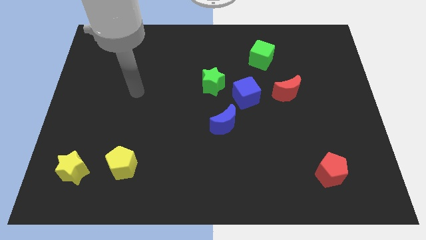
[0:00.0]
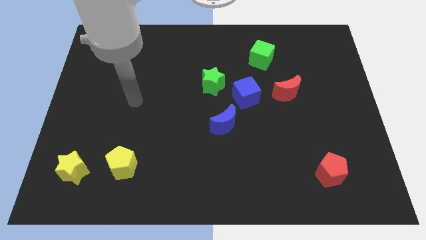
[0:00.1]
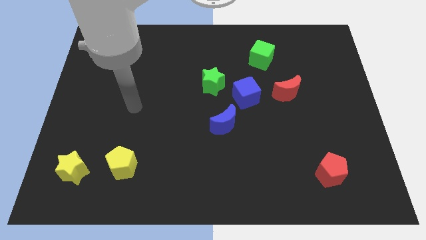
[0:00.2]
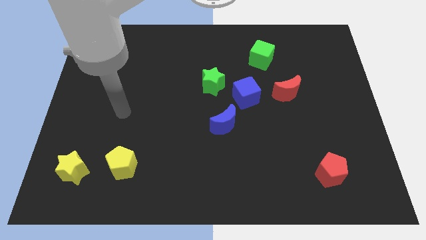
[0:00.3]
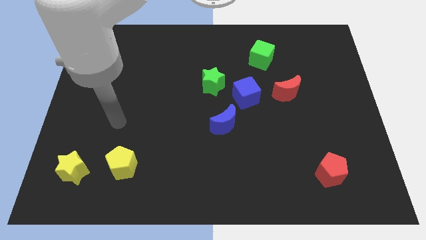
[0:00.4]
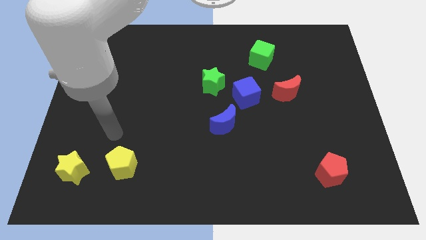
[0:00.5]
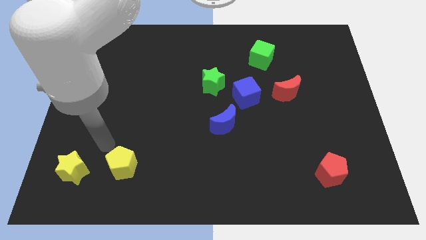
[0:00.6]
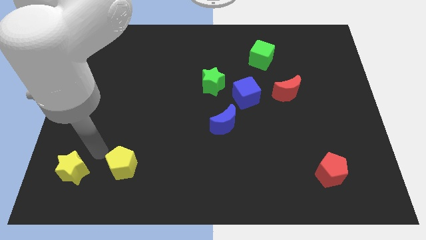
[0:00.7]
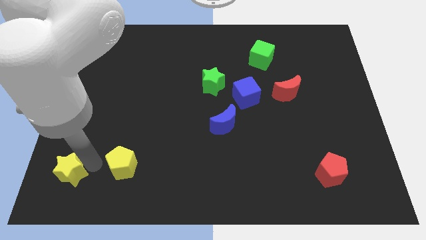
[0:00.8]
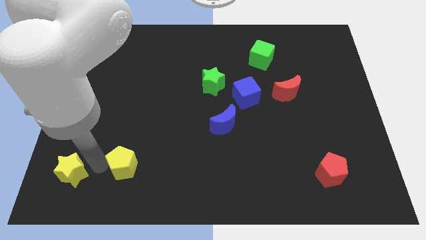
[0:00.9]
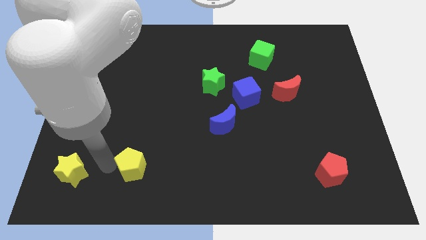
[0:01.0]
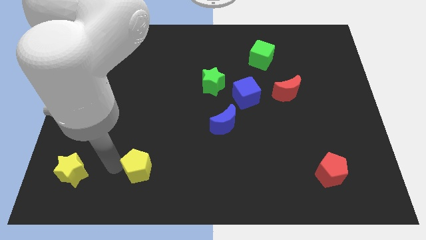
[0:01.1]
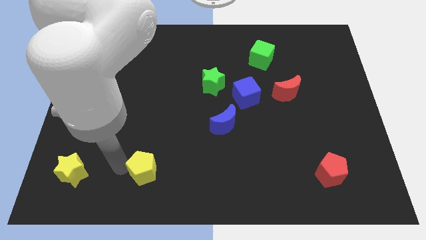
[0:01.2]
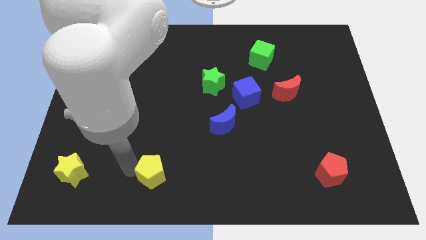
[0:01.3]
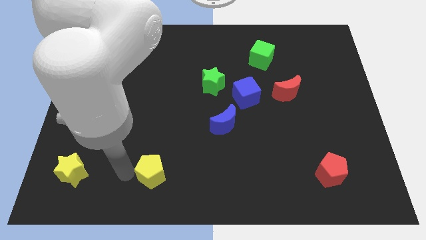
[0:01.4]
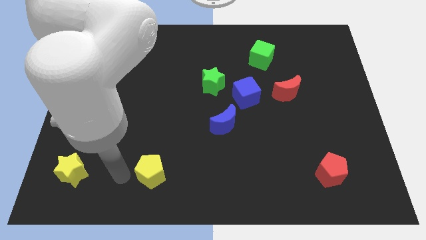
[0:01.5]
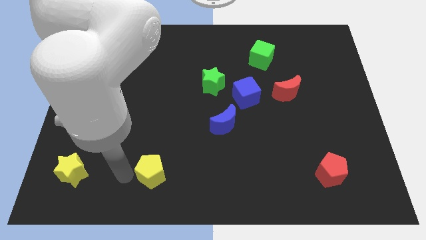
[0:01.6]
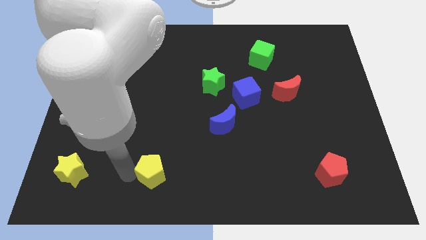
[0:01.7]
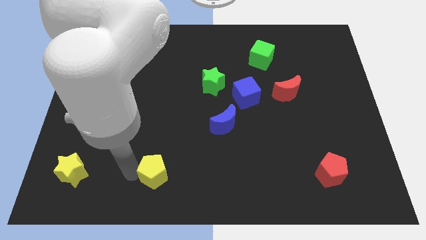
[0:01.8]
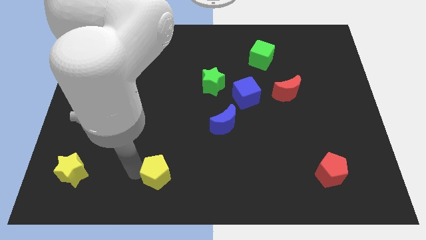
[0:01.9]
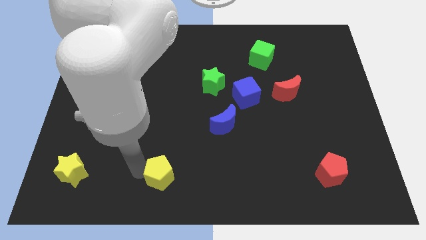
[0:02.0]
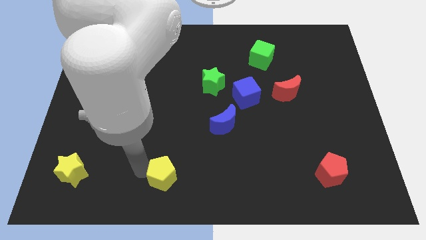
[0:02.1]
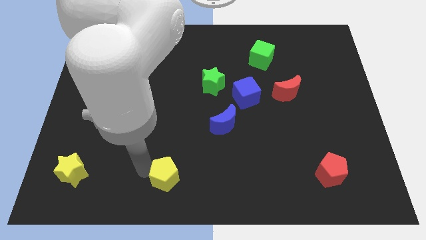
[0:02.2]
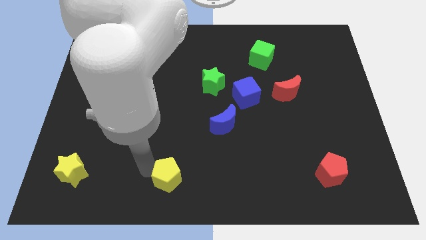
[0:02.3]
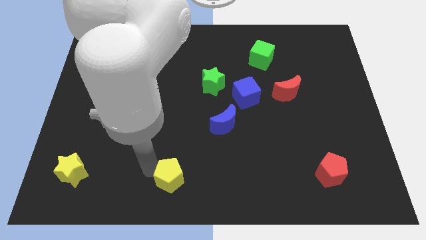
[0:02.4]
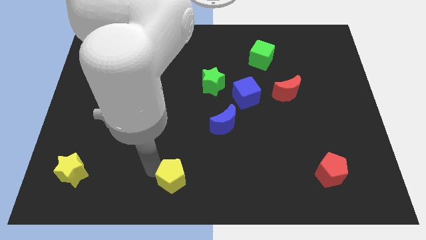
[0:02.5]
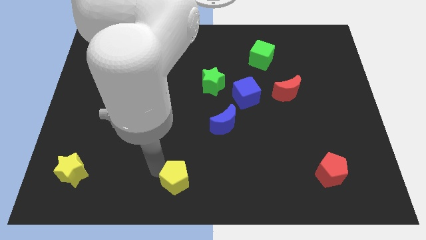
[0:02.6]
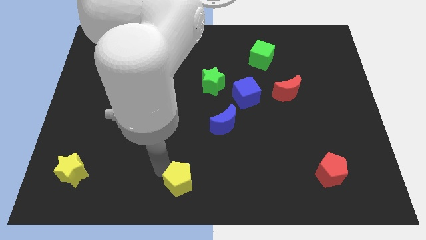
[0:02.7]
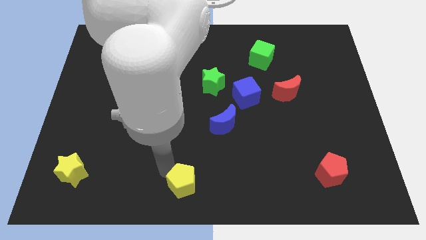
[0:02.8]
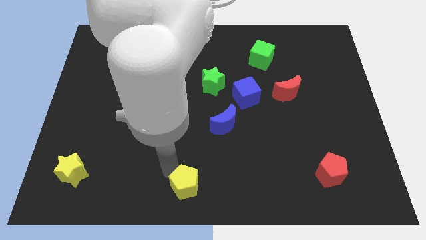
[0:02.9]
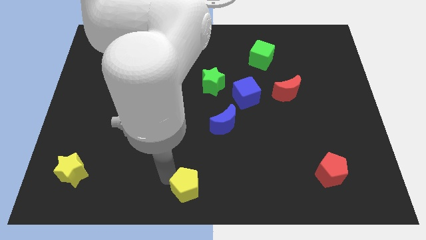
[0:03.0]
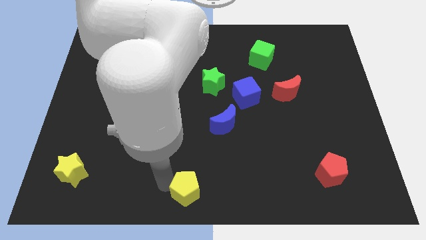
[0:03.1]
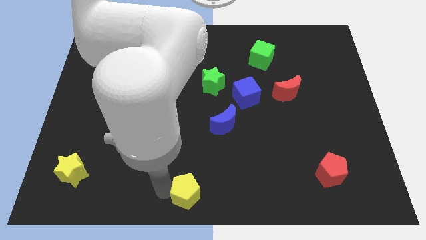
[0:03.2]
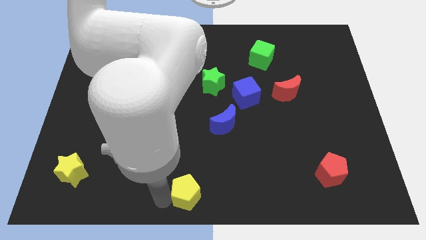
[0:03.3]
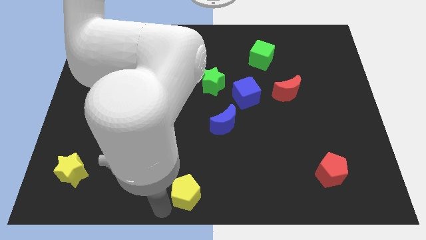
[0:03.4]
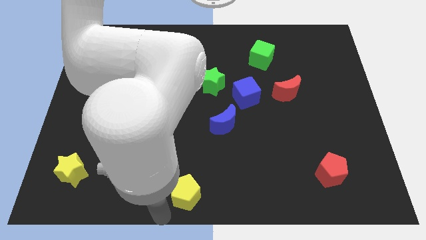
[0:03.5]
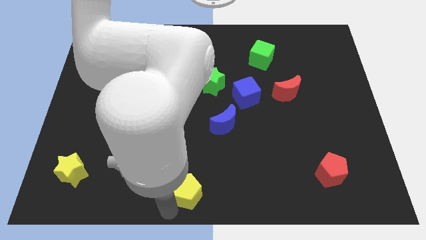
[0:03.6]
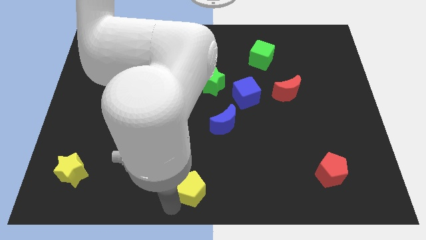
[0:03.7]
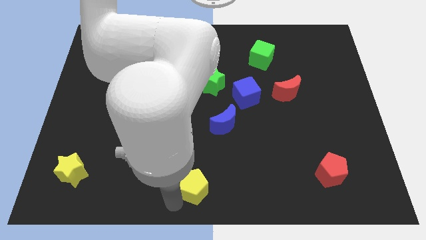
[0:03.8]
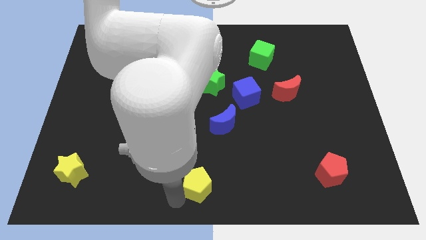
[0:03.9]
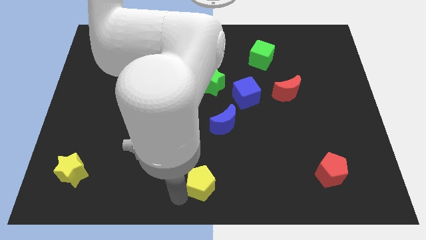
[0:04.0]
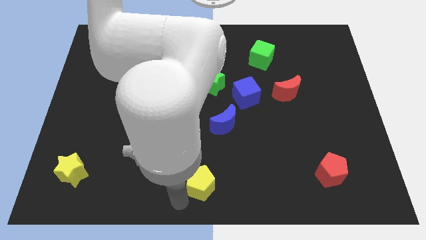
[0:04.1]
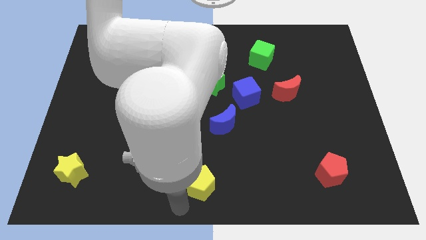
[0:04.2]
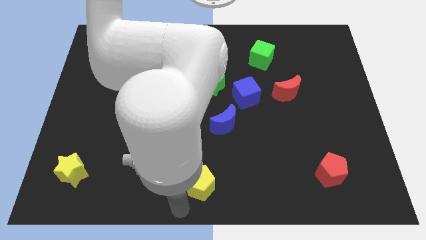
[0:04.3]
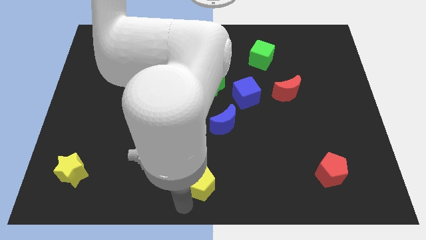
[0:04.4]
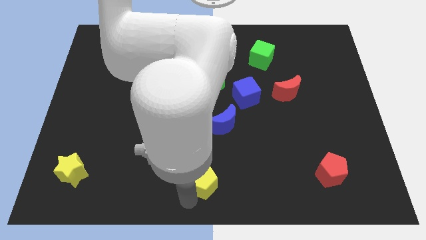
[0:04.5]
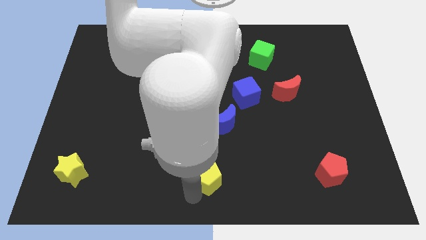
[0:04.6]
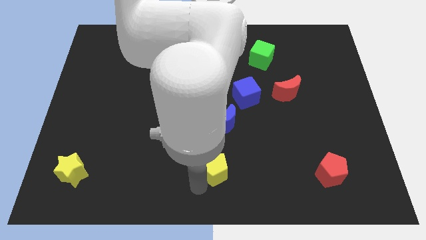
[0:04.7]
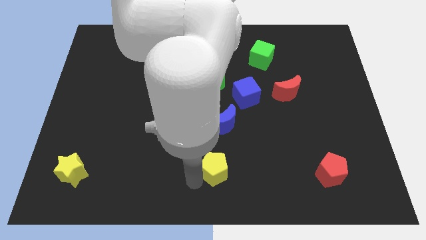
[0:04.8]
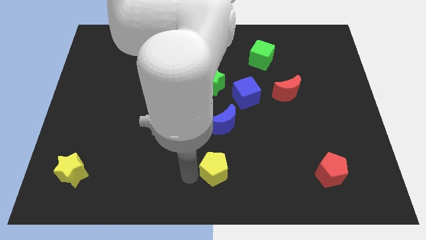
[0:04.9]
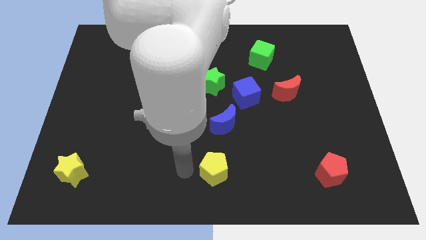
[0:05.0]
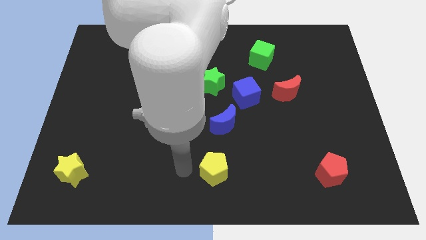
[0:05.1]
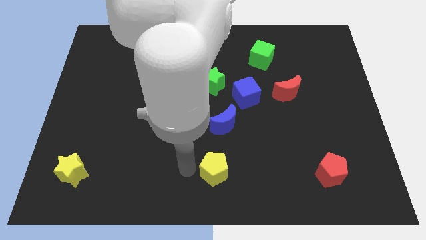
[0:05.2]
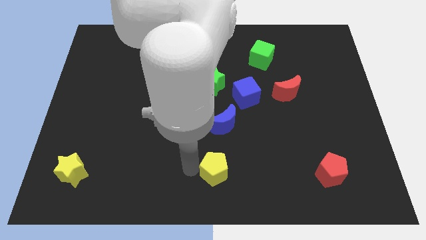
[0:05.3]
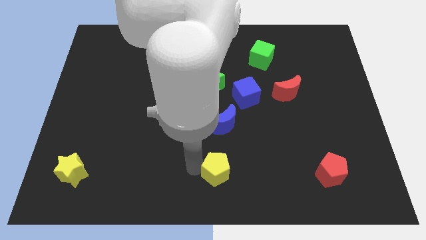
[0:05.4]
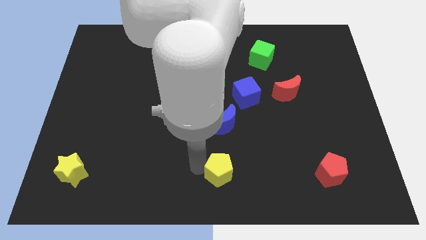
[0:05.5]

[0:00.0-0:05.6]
move the yellow pentagon right

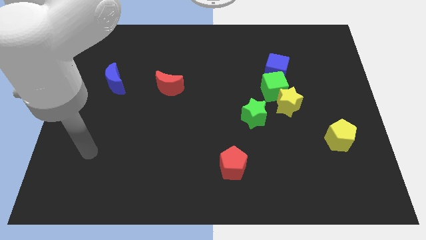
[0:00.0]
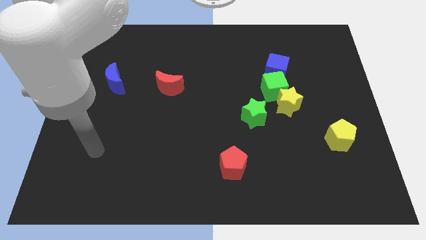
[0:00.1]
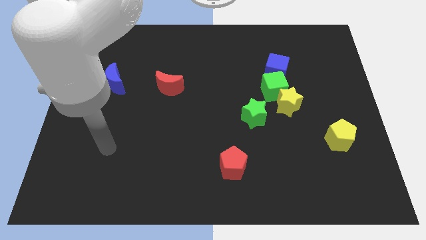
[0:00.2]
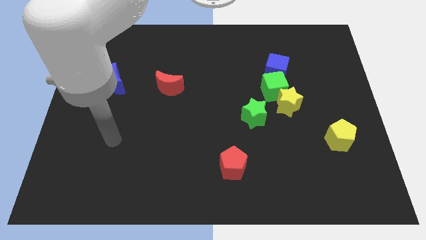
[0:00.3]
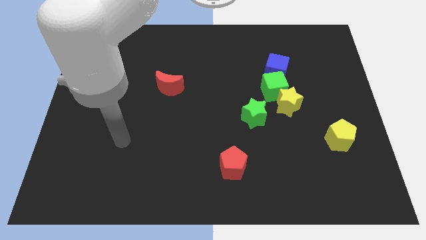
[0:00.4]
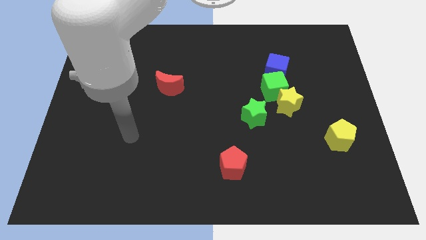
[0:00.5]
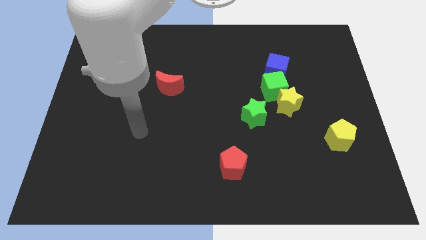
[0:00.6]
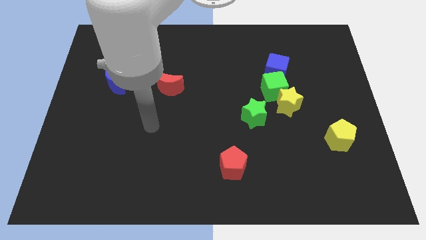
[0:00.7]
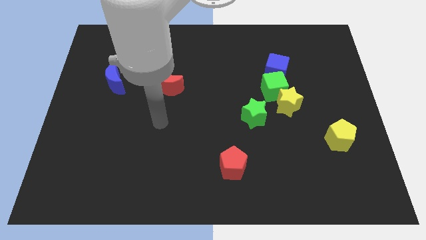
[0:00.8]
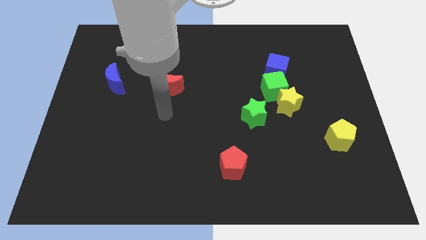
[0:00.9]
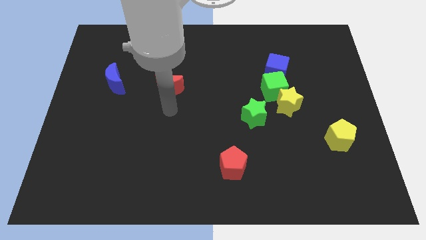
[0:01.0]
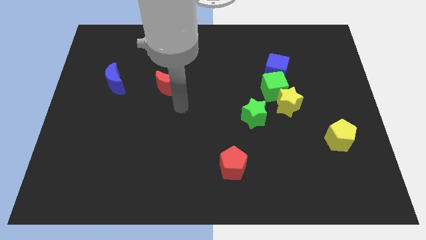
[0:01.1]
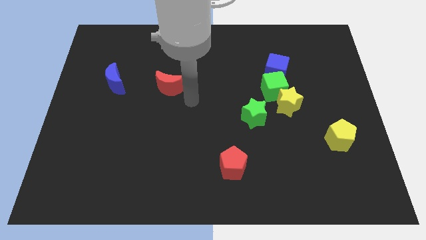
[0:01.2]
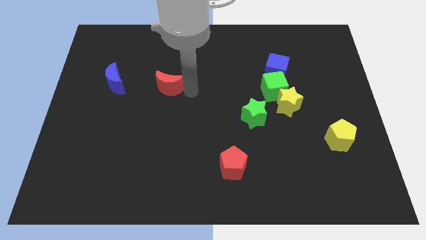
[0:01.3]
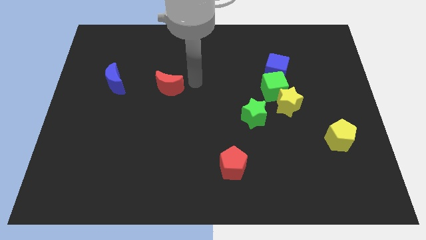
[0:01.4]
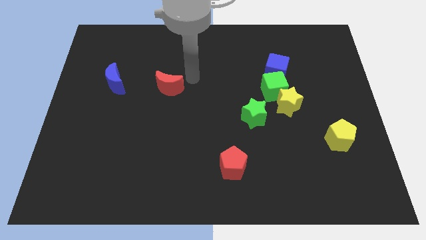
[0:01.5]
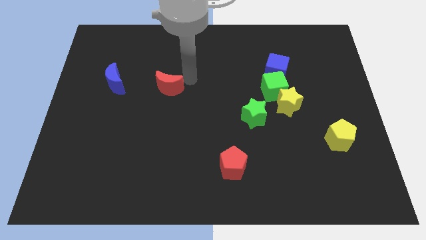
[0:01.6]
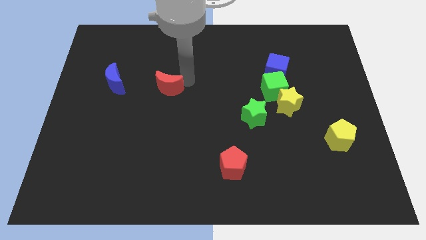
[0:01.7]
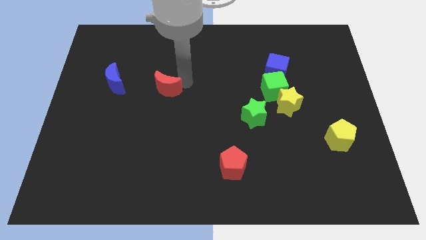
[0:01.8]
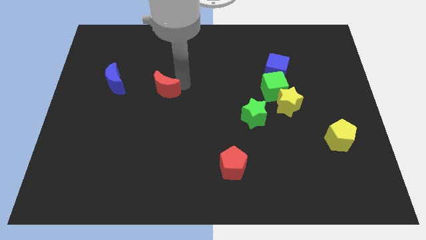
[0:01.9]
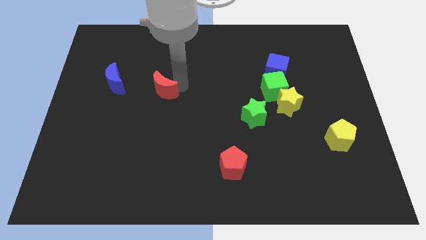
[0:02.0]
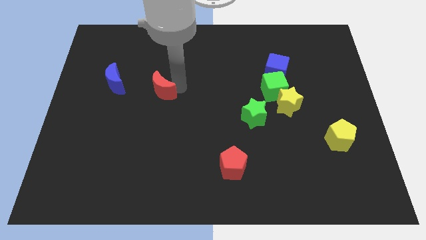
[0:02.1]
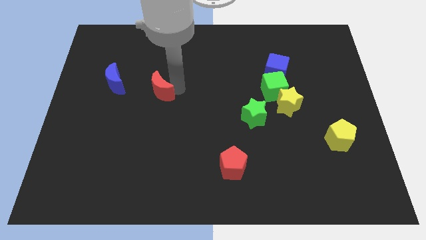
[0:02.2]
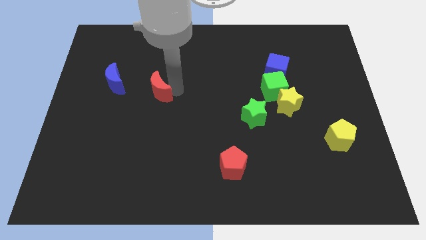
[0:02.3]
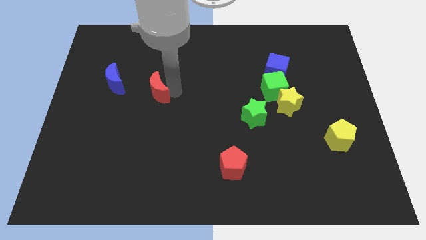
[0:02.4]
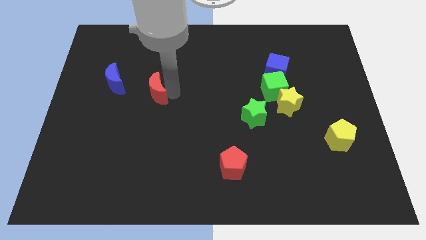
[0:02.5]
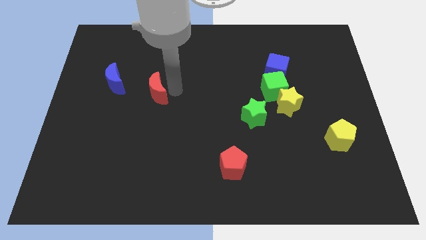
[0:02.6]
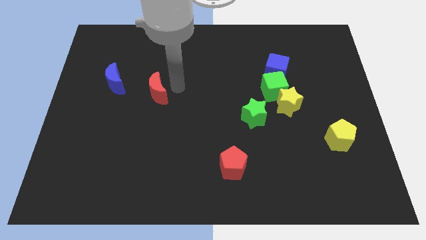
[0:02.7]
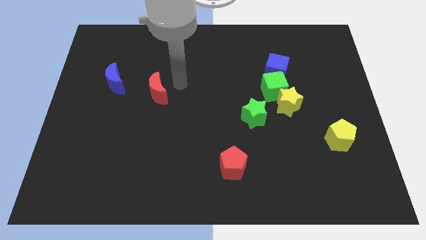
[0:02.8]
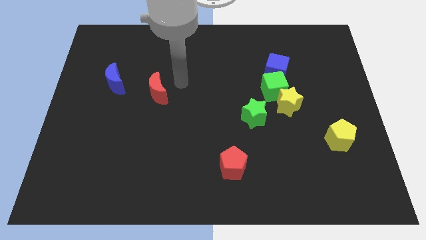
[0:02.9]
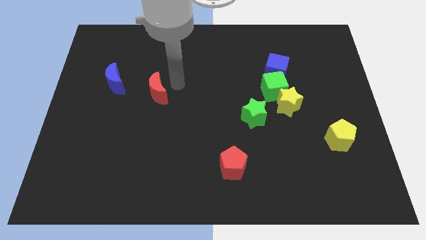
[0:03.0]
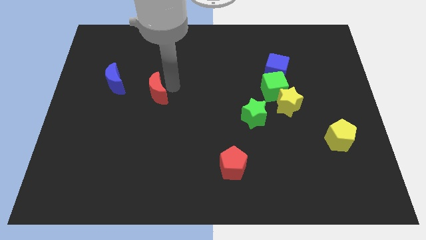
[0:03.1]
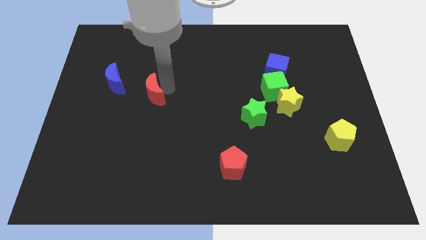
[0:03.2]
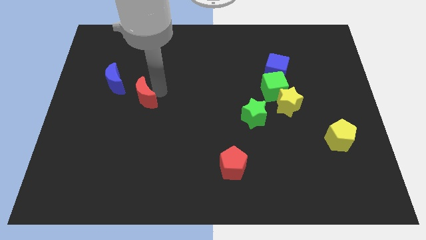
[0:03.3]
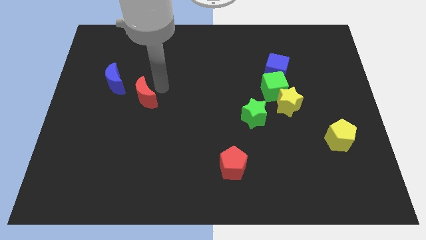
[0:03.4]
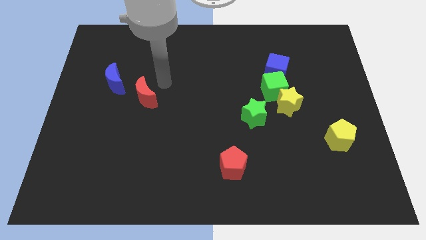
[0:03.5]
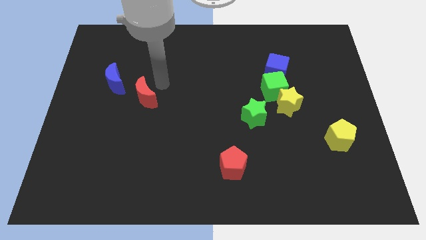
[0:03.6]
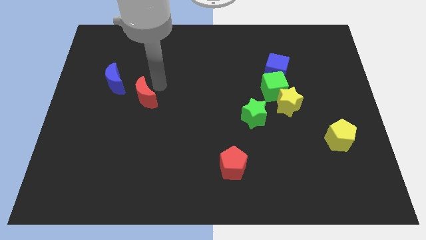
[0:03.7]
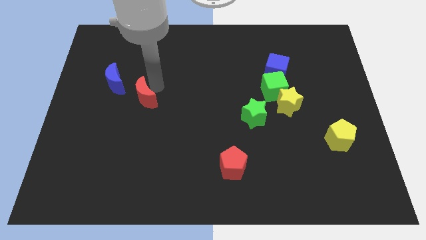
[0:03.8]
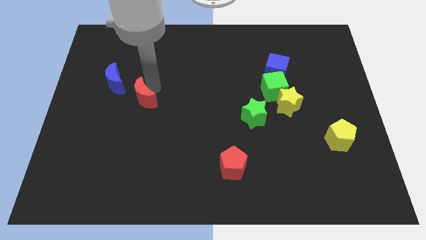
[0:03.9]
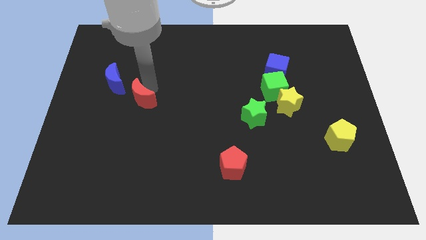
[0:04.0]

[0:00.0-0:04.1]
slide the red moon downwards and then to the left slightly
